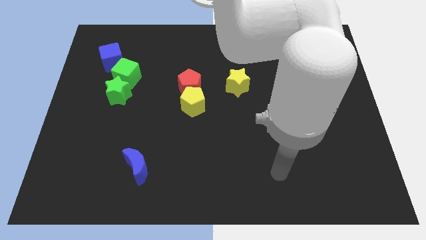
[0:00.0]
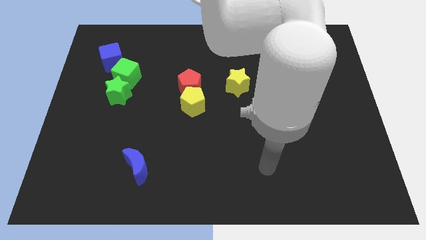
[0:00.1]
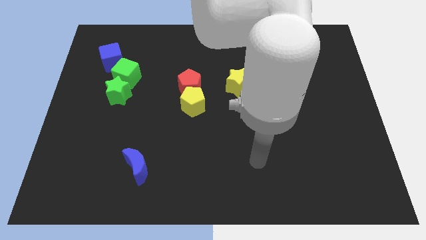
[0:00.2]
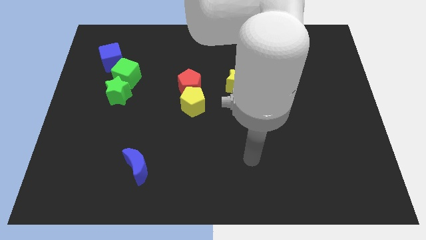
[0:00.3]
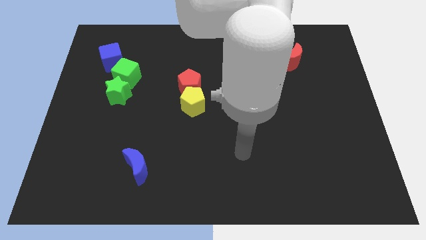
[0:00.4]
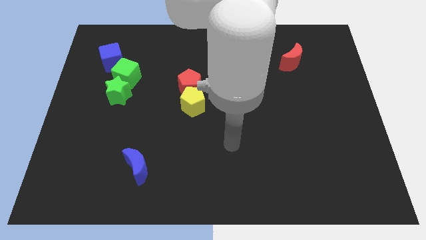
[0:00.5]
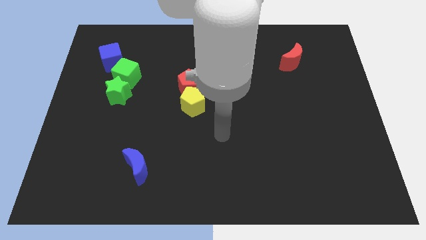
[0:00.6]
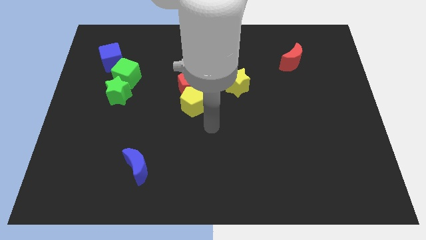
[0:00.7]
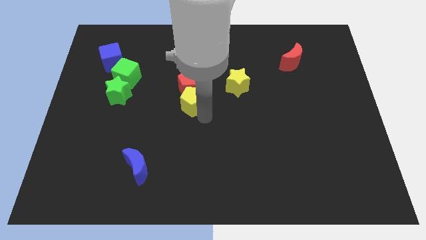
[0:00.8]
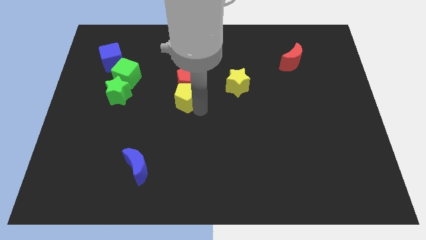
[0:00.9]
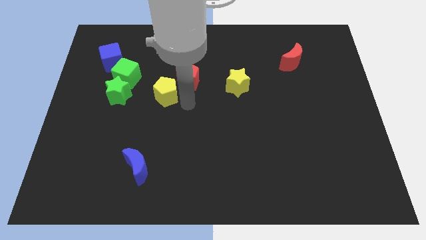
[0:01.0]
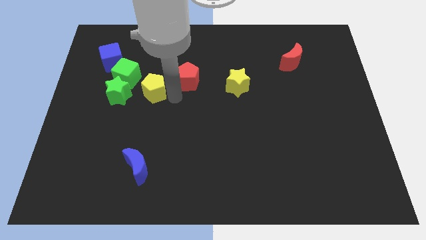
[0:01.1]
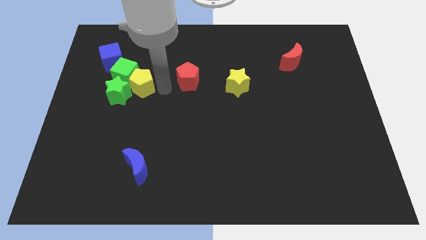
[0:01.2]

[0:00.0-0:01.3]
pull the red pentagon apart from the yellow pentagon

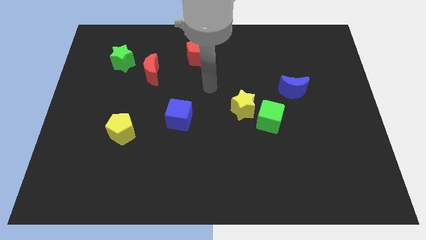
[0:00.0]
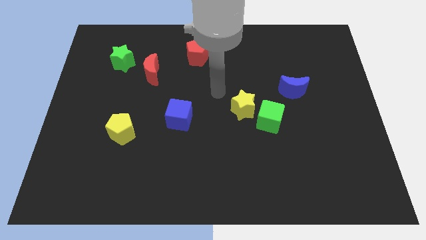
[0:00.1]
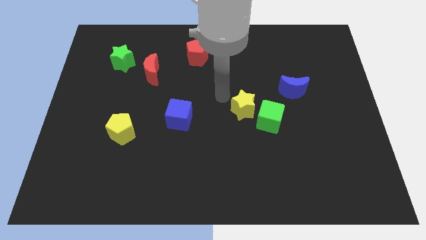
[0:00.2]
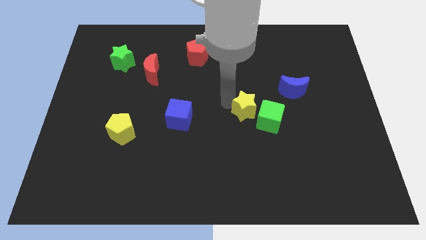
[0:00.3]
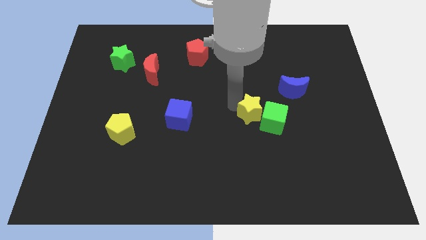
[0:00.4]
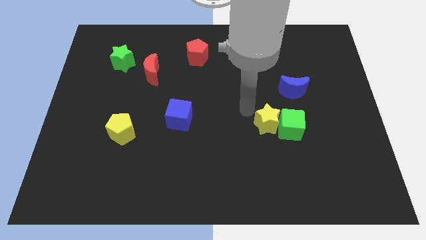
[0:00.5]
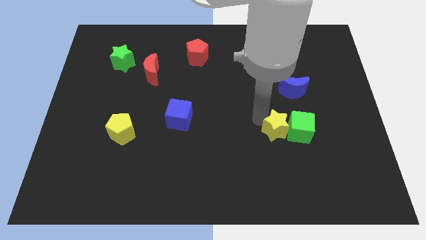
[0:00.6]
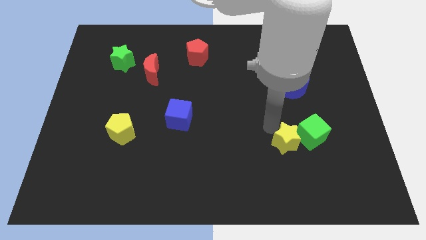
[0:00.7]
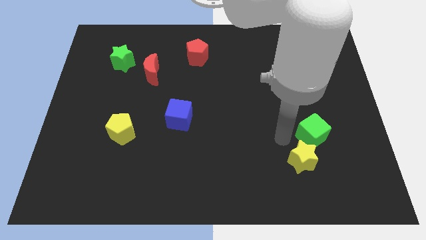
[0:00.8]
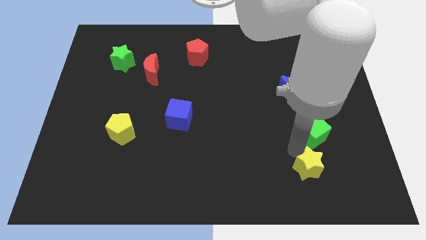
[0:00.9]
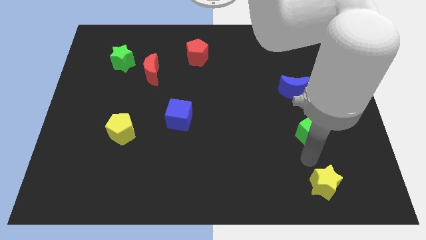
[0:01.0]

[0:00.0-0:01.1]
separate the green cube from the yellow star

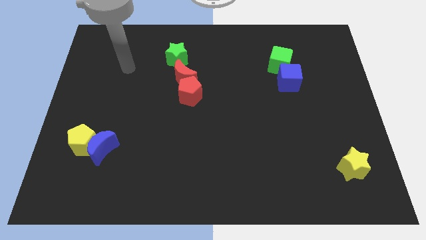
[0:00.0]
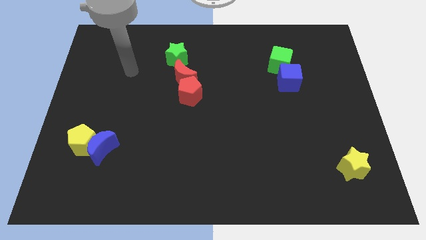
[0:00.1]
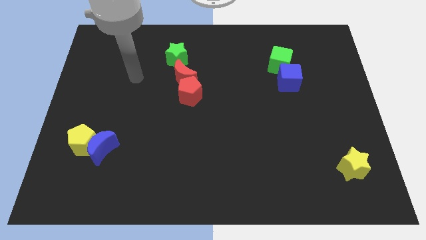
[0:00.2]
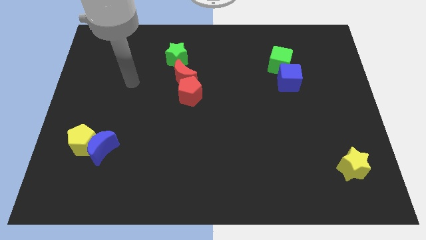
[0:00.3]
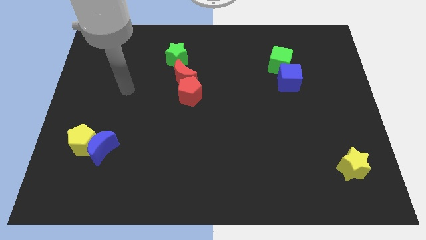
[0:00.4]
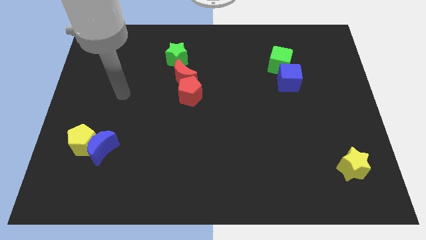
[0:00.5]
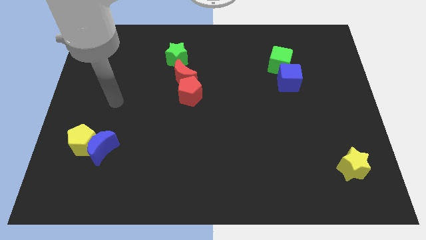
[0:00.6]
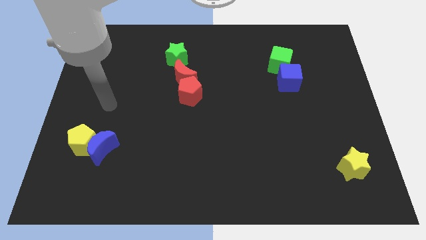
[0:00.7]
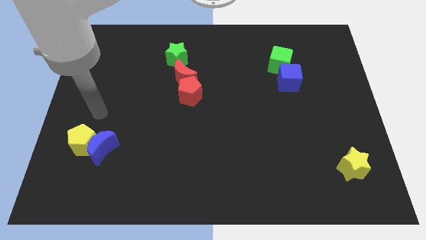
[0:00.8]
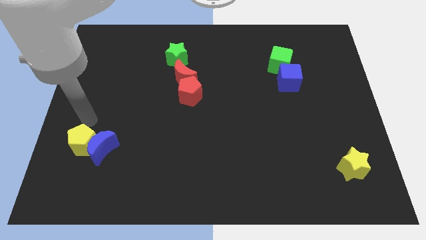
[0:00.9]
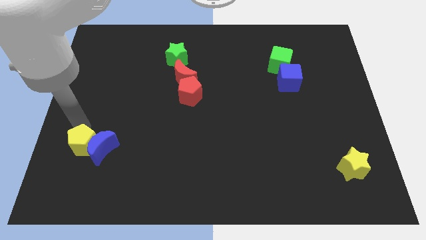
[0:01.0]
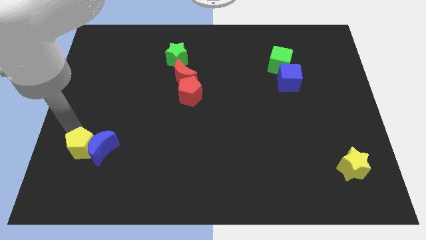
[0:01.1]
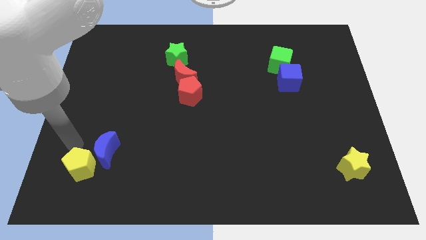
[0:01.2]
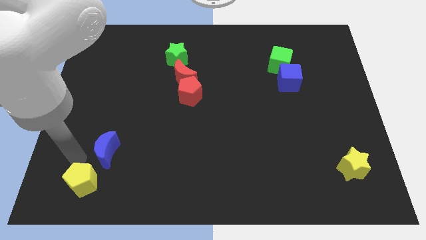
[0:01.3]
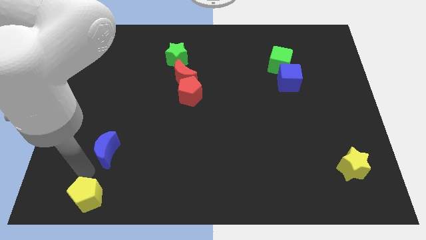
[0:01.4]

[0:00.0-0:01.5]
separate the blue moon from the yellow pentagon

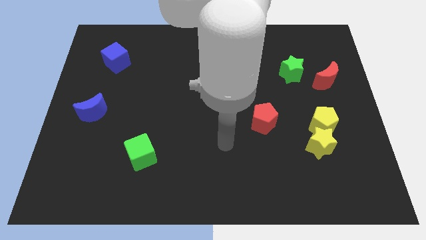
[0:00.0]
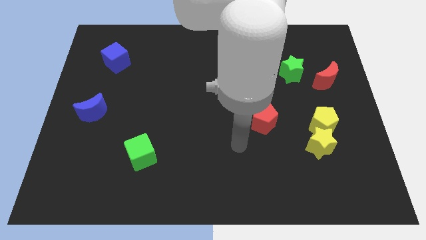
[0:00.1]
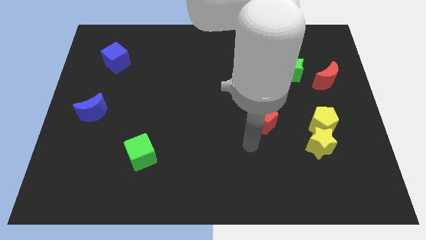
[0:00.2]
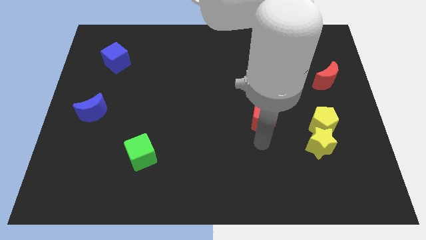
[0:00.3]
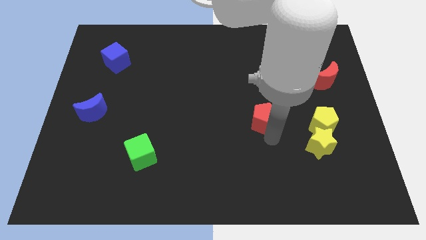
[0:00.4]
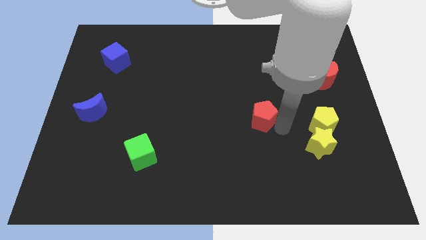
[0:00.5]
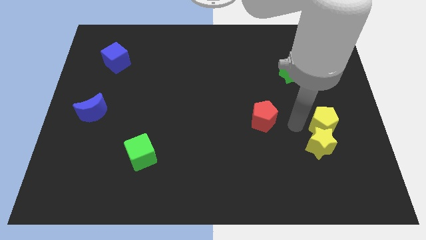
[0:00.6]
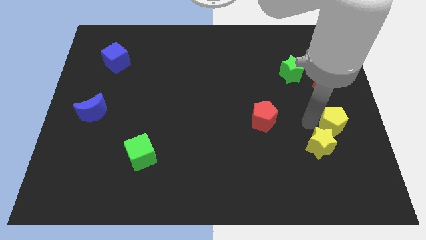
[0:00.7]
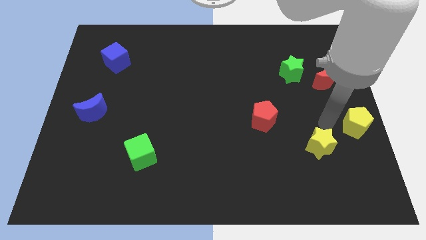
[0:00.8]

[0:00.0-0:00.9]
move the yellow star away from the yellow pentagon

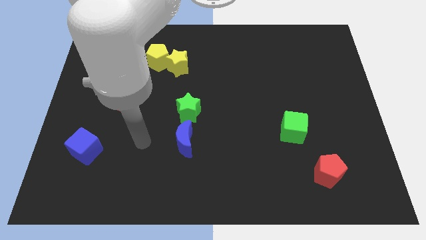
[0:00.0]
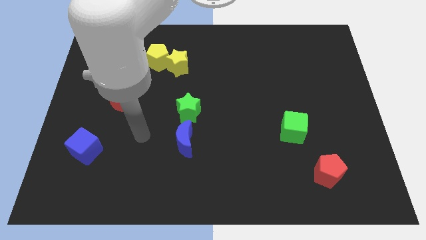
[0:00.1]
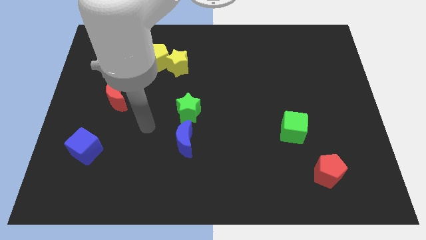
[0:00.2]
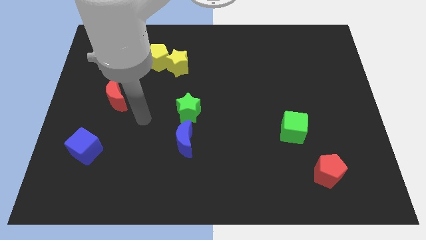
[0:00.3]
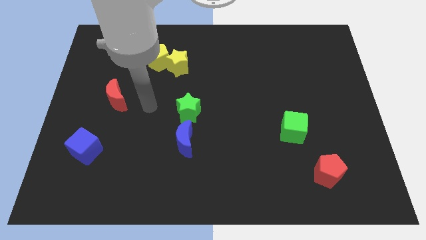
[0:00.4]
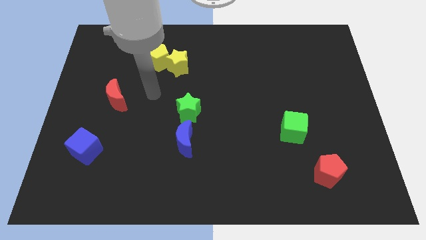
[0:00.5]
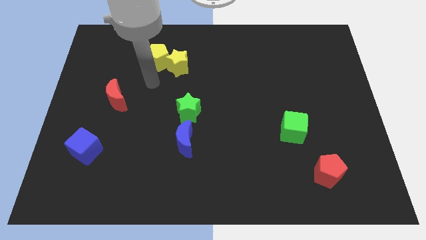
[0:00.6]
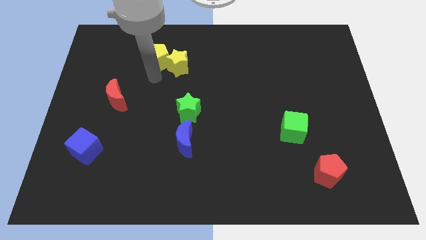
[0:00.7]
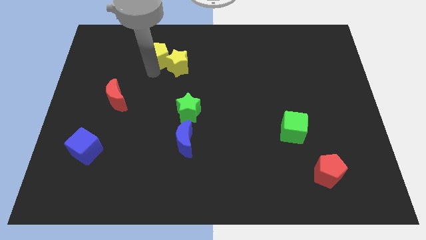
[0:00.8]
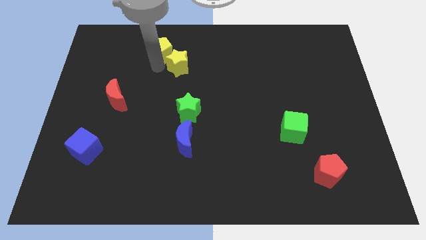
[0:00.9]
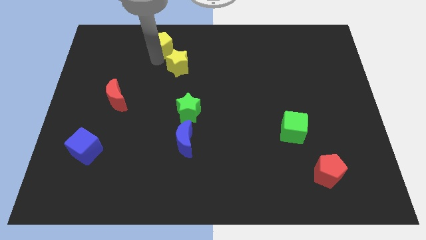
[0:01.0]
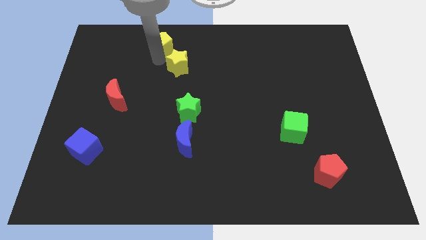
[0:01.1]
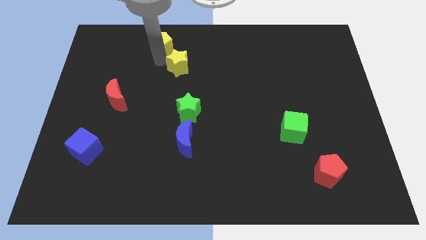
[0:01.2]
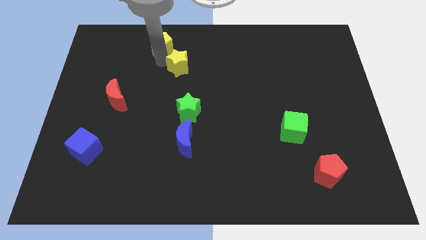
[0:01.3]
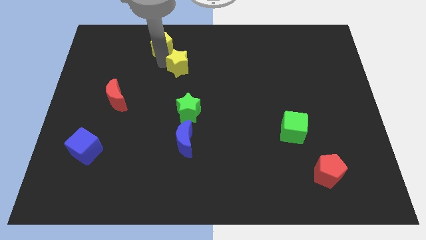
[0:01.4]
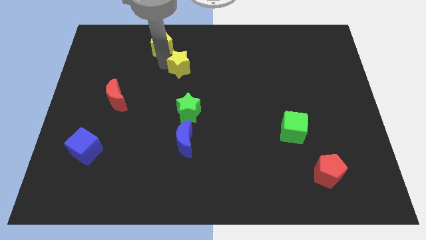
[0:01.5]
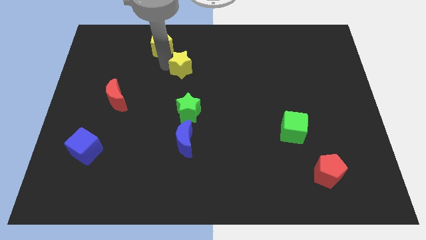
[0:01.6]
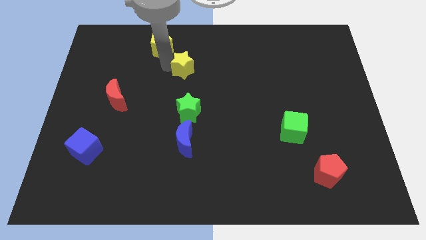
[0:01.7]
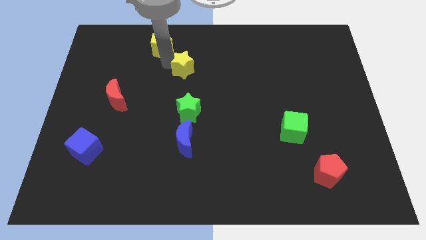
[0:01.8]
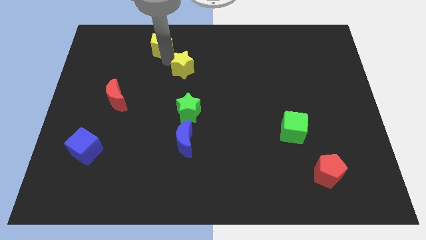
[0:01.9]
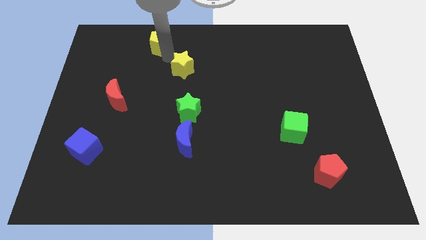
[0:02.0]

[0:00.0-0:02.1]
separate the yellow star from the yellow pentagon

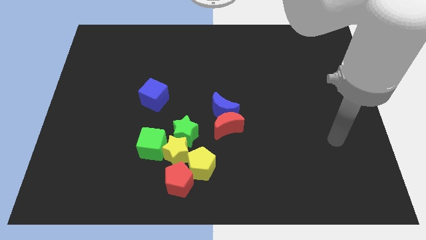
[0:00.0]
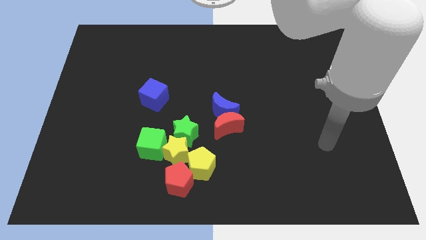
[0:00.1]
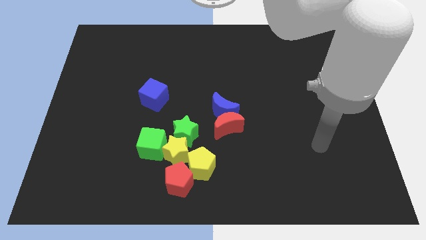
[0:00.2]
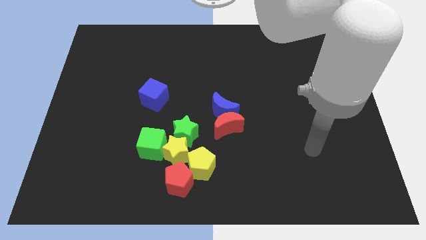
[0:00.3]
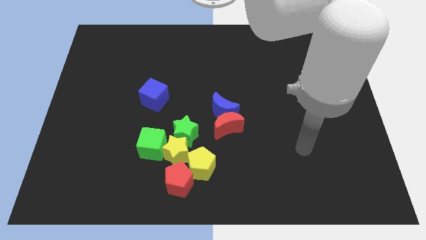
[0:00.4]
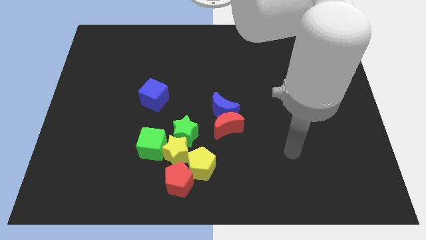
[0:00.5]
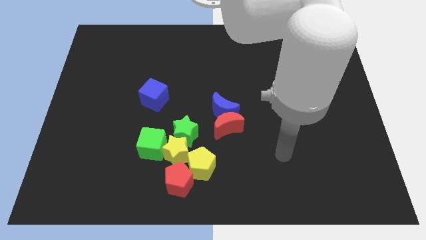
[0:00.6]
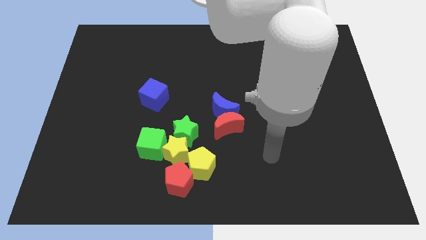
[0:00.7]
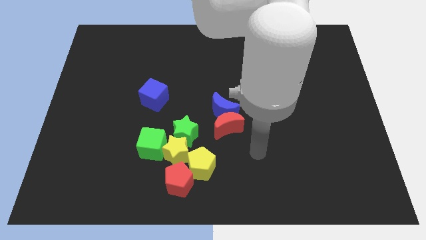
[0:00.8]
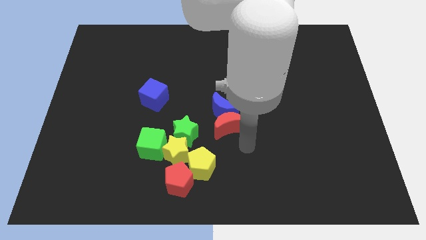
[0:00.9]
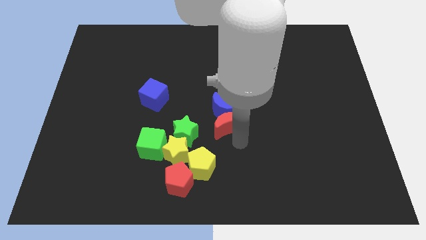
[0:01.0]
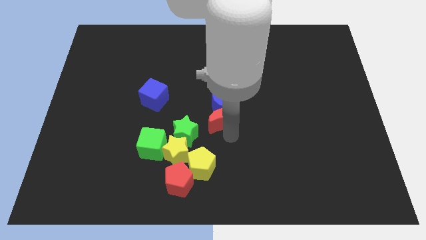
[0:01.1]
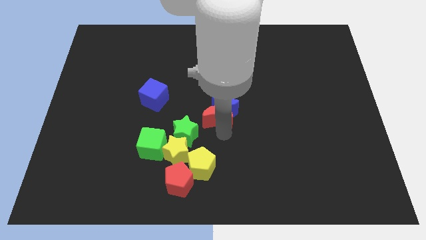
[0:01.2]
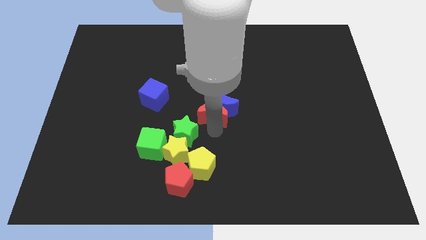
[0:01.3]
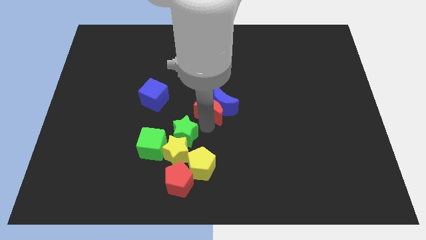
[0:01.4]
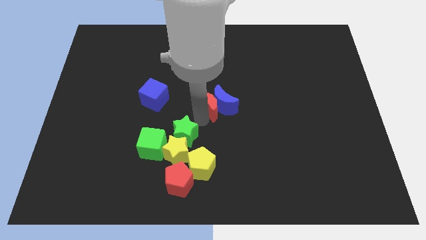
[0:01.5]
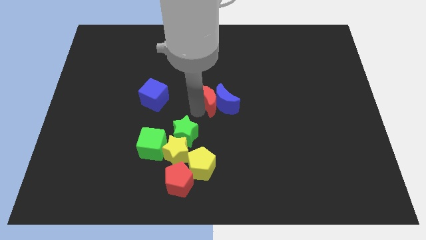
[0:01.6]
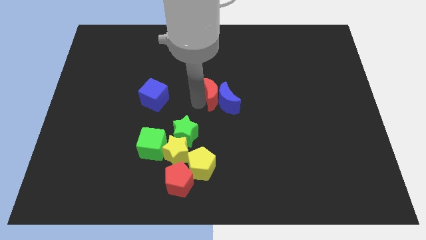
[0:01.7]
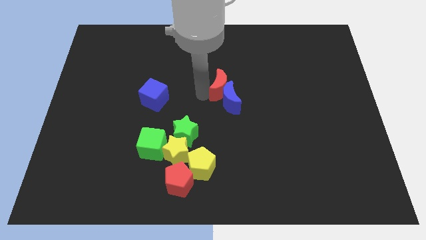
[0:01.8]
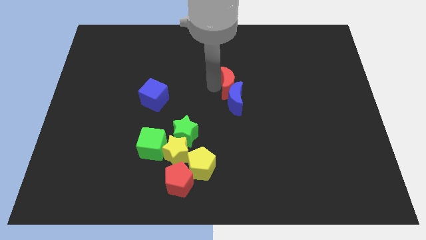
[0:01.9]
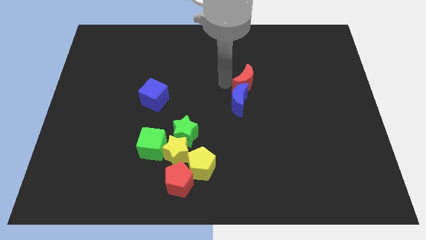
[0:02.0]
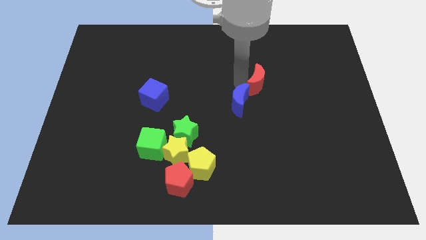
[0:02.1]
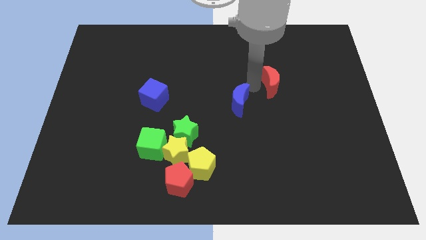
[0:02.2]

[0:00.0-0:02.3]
pull the blue moon apart from the red moon
